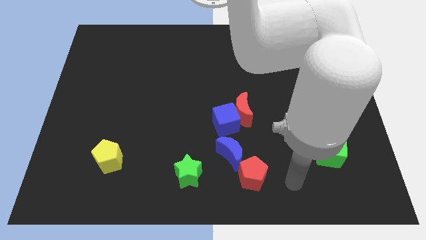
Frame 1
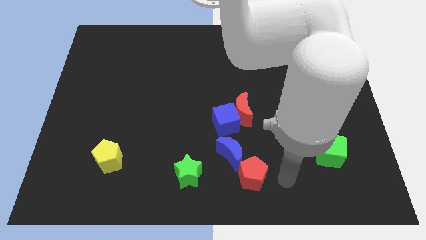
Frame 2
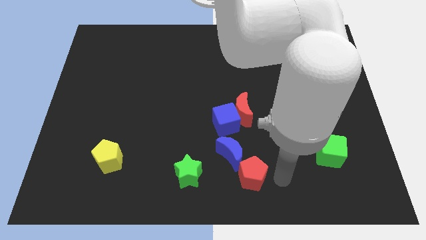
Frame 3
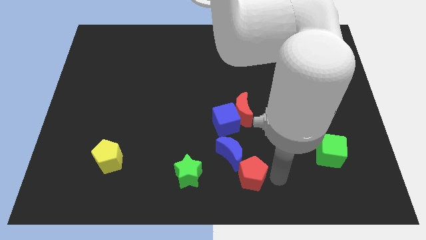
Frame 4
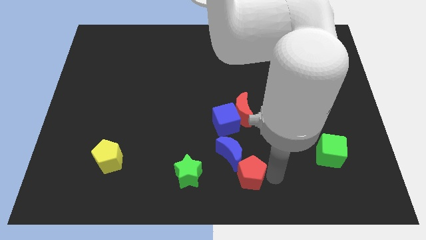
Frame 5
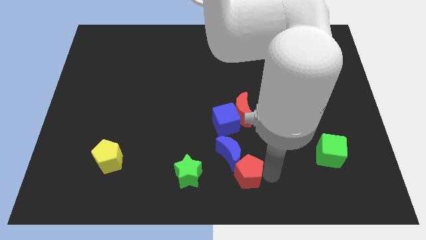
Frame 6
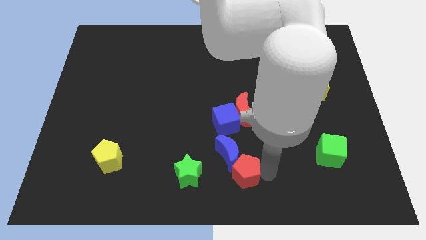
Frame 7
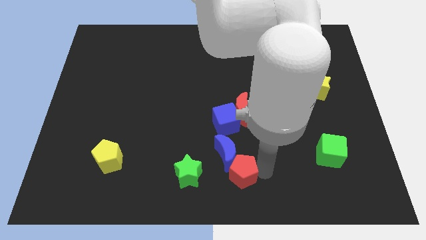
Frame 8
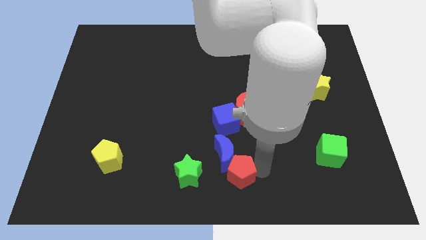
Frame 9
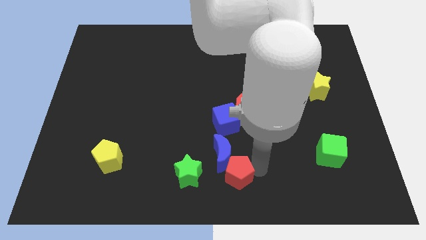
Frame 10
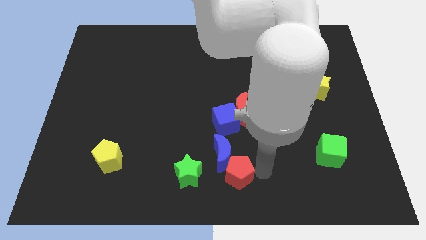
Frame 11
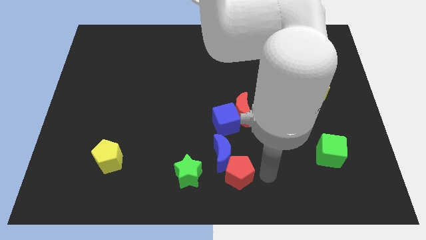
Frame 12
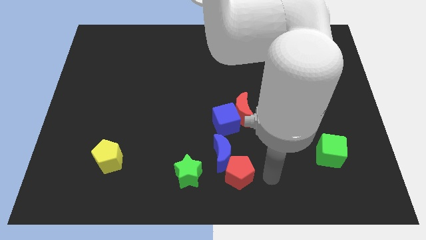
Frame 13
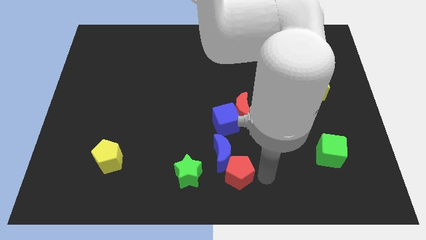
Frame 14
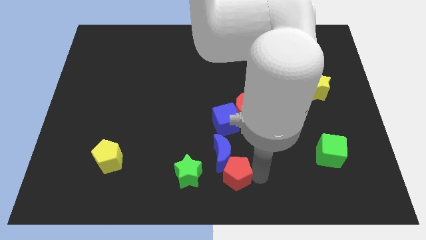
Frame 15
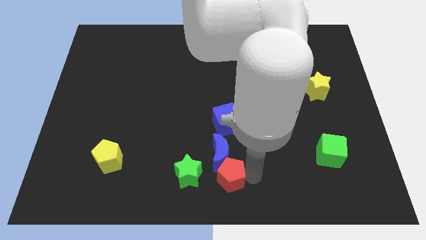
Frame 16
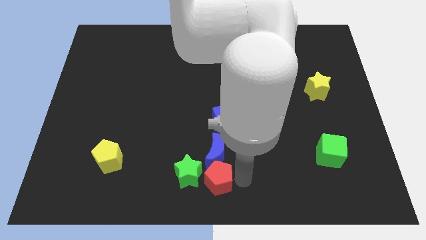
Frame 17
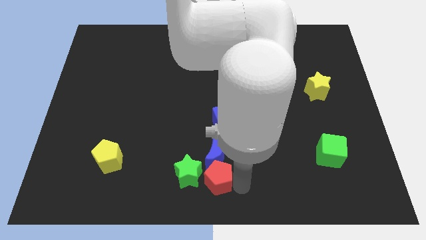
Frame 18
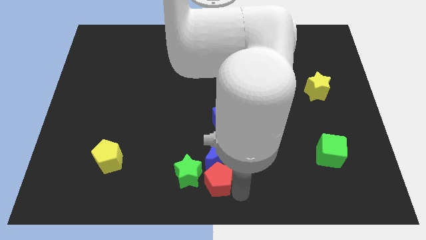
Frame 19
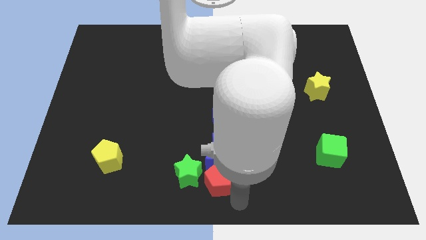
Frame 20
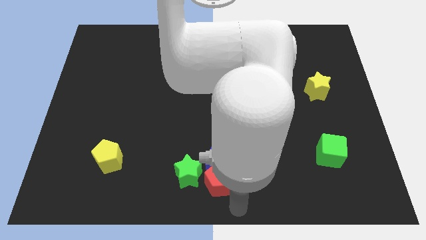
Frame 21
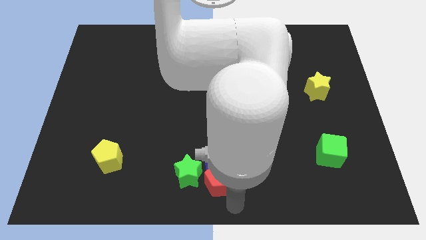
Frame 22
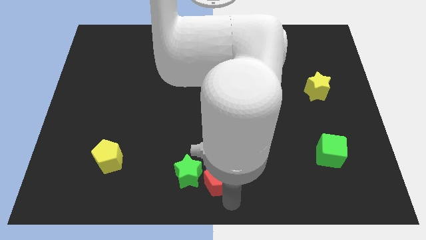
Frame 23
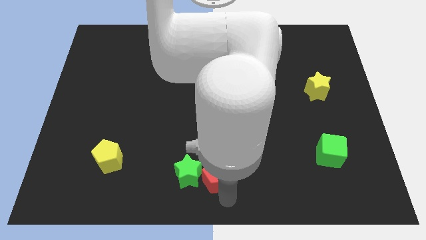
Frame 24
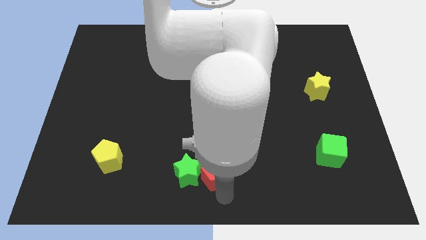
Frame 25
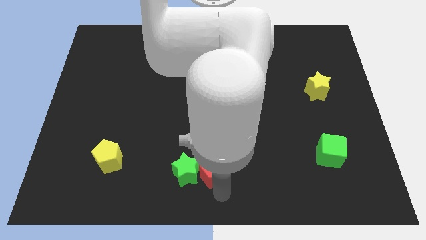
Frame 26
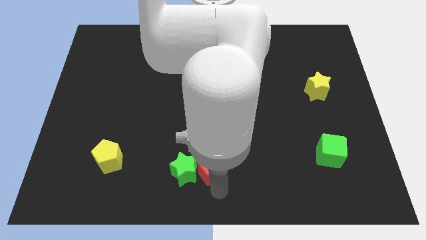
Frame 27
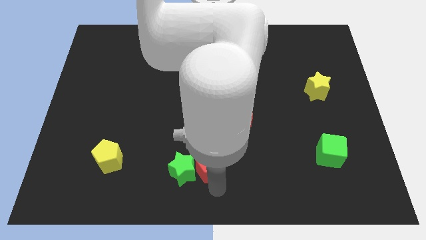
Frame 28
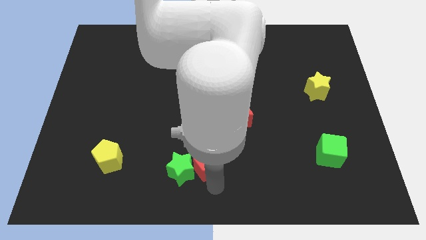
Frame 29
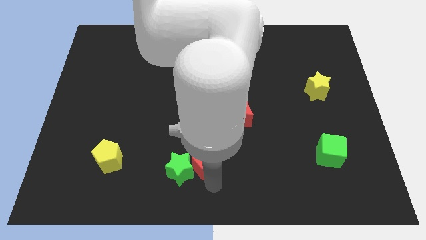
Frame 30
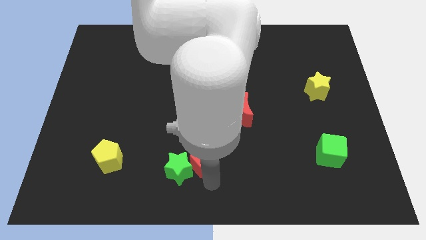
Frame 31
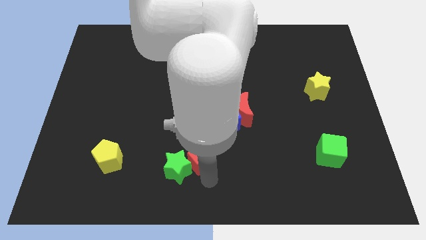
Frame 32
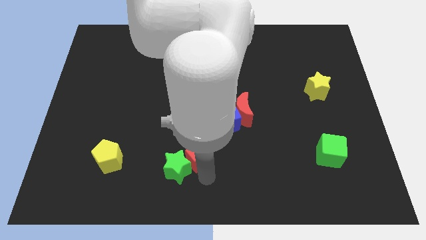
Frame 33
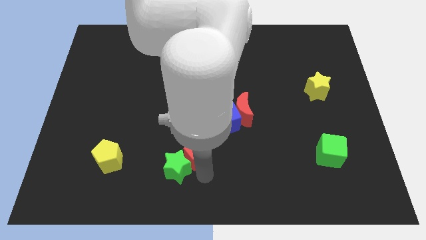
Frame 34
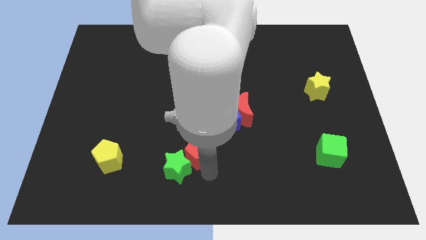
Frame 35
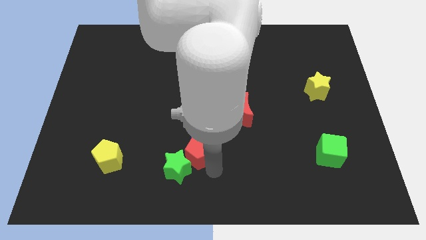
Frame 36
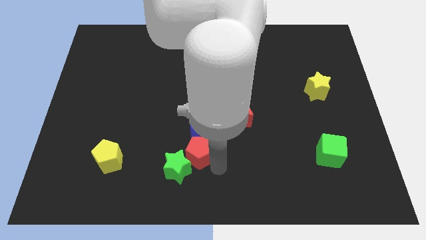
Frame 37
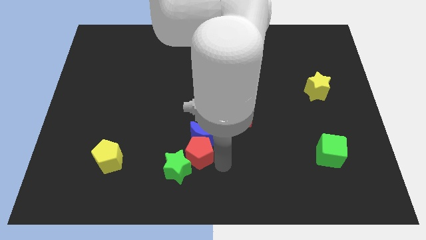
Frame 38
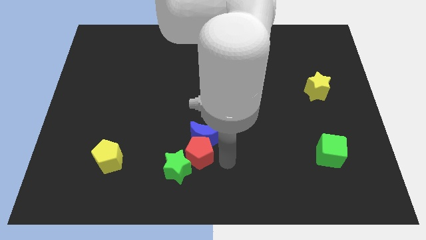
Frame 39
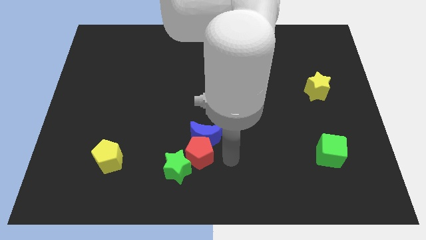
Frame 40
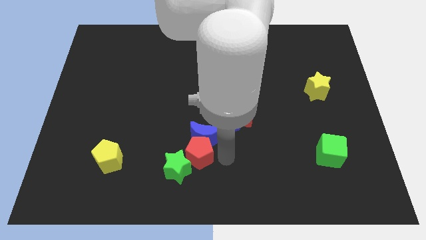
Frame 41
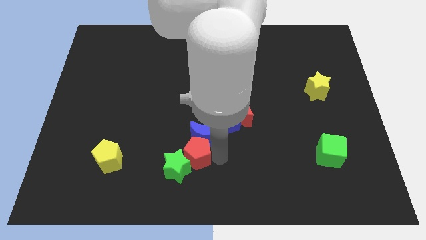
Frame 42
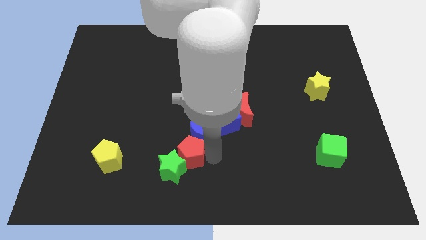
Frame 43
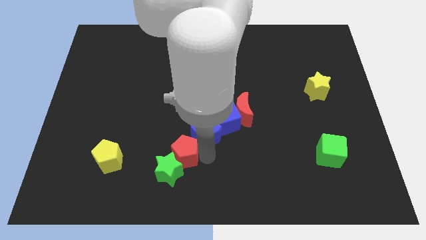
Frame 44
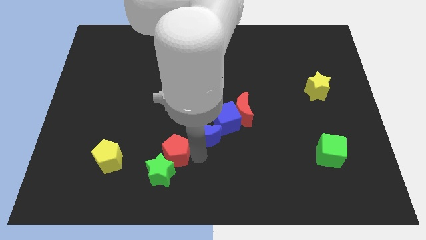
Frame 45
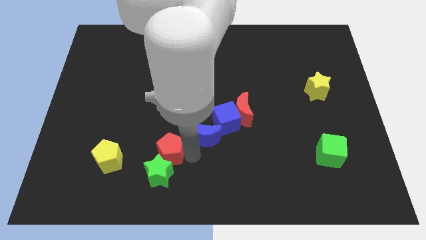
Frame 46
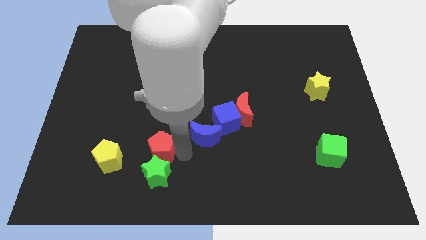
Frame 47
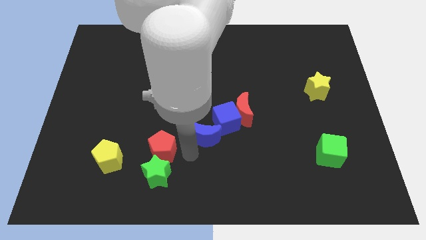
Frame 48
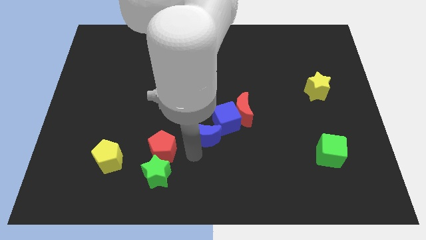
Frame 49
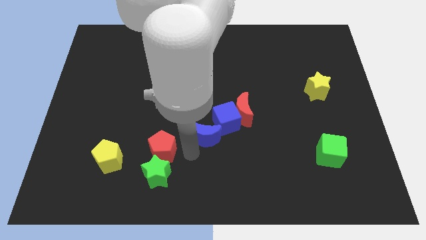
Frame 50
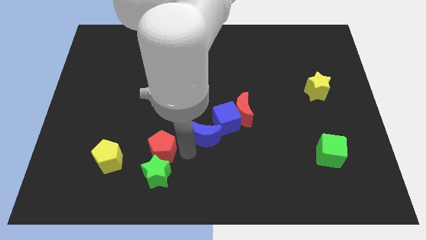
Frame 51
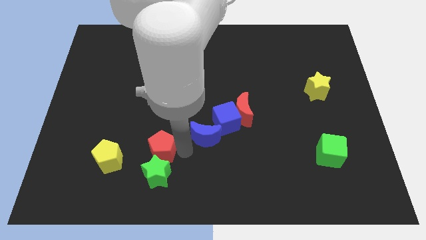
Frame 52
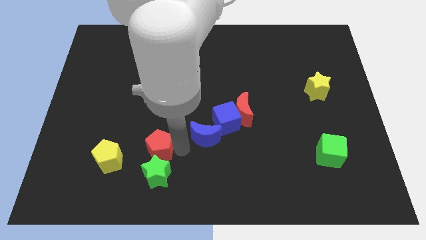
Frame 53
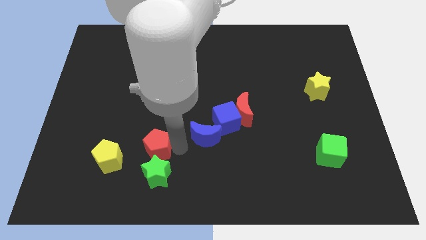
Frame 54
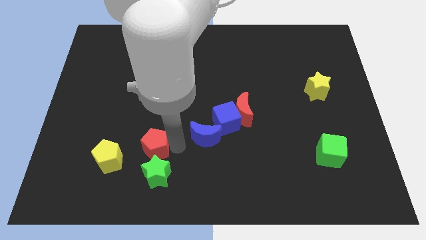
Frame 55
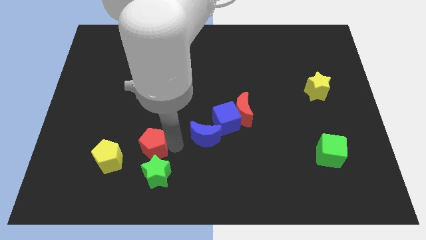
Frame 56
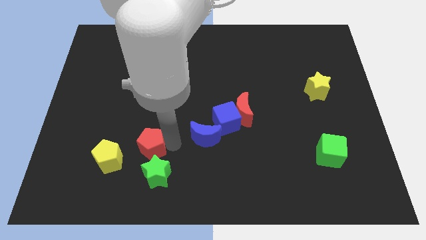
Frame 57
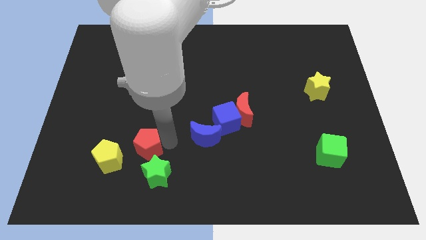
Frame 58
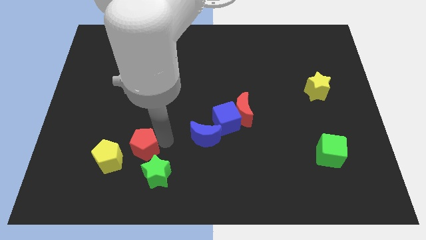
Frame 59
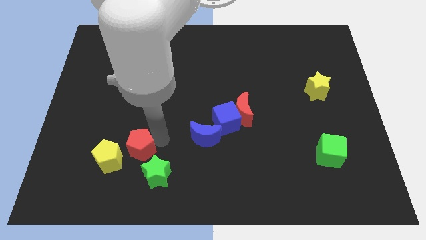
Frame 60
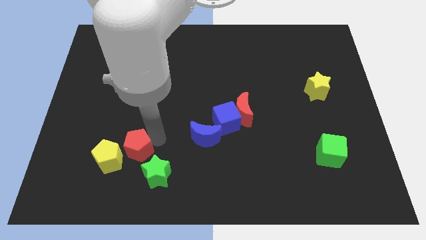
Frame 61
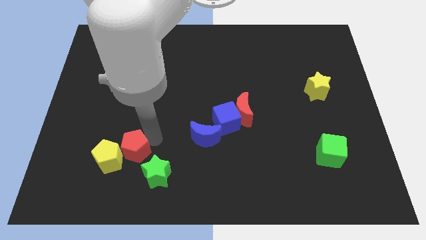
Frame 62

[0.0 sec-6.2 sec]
slide the red pentagon close to the yellow pentagon

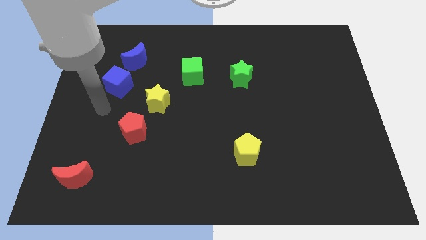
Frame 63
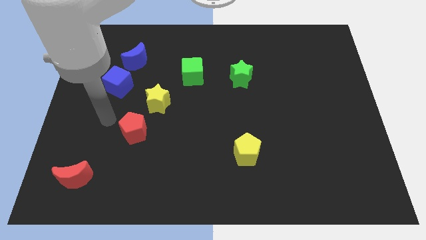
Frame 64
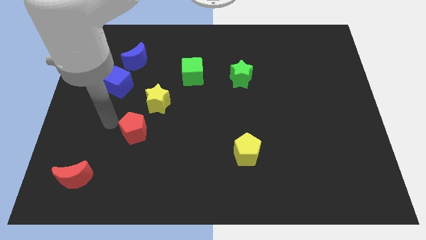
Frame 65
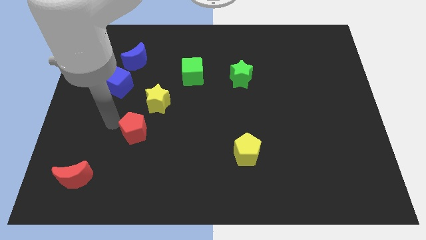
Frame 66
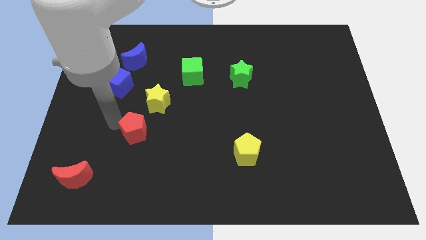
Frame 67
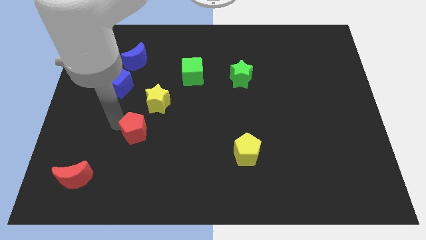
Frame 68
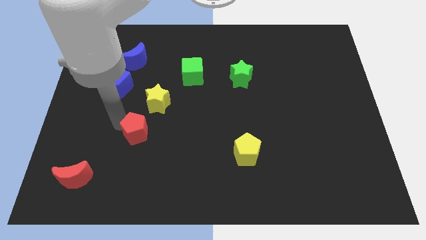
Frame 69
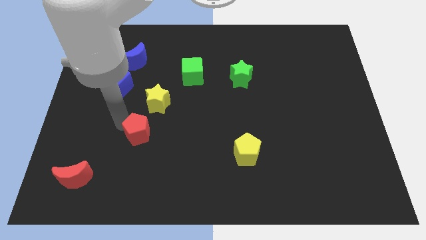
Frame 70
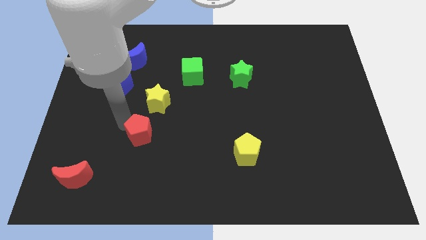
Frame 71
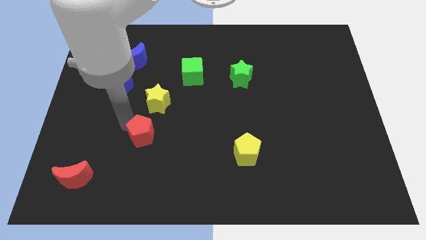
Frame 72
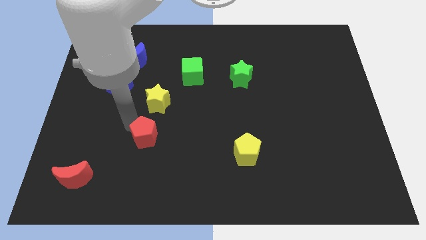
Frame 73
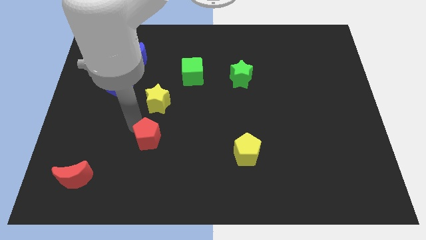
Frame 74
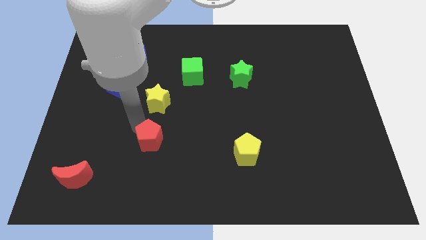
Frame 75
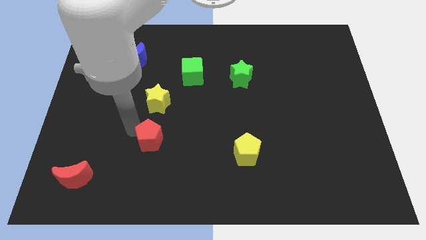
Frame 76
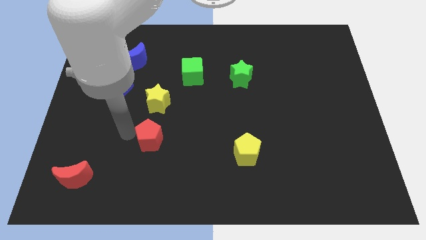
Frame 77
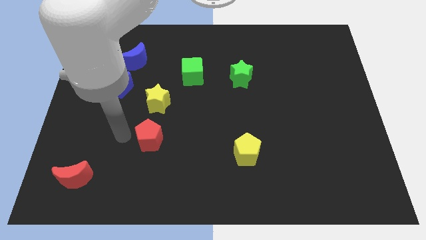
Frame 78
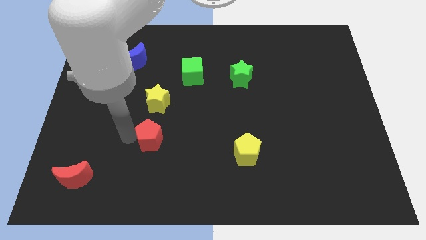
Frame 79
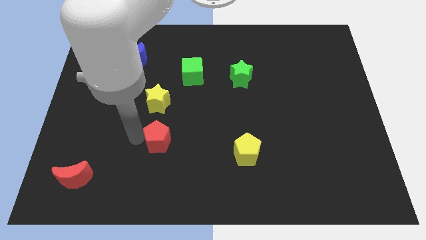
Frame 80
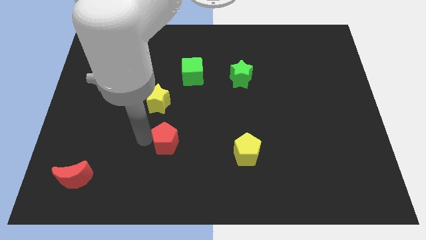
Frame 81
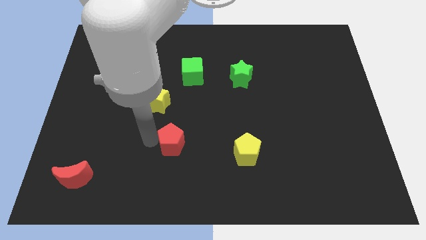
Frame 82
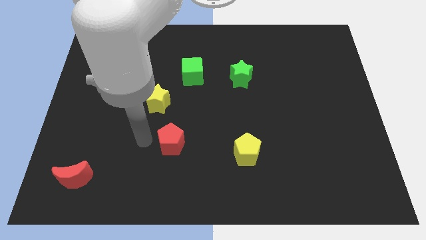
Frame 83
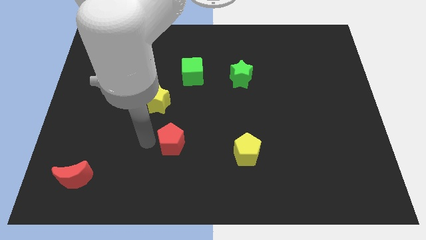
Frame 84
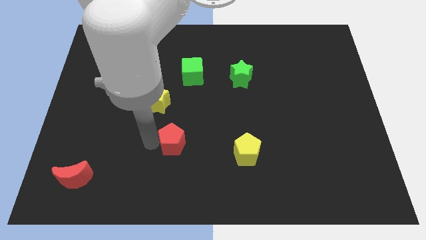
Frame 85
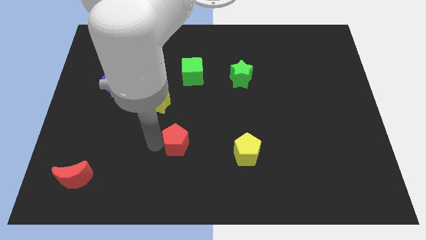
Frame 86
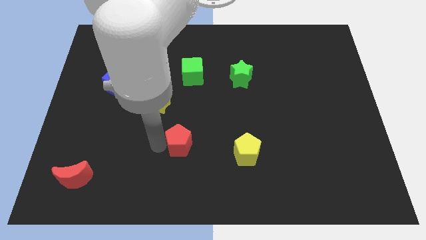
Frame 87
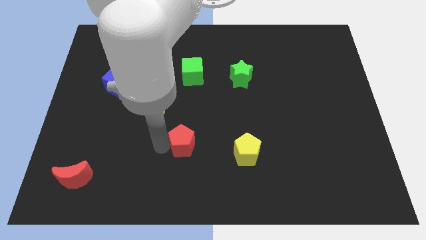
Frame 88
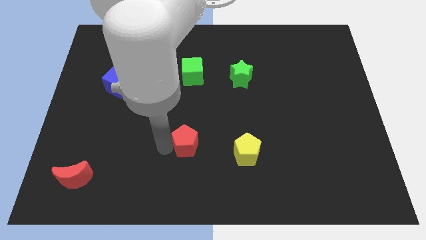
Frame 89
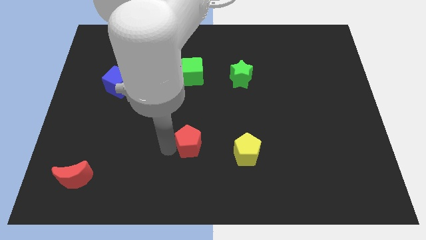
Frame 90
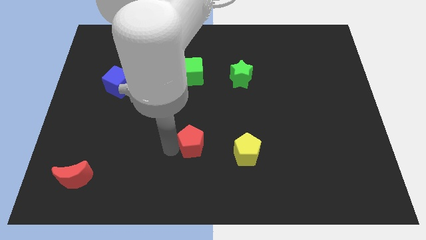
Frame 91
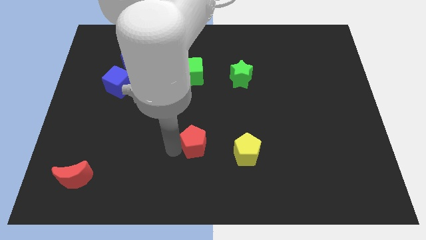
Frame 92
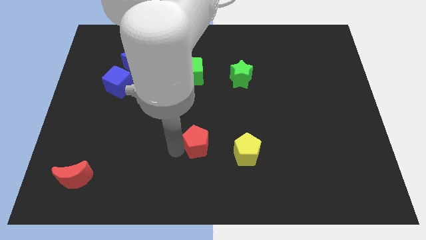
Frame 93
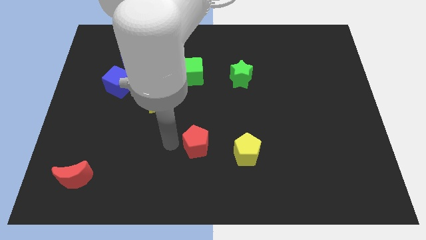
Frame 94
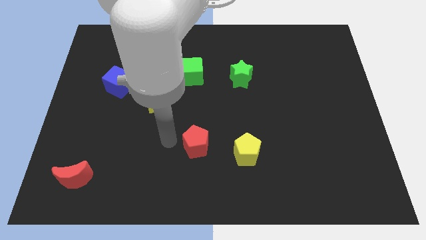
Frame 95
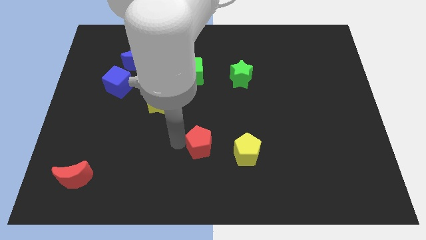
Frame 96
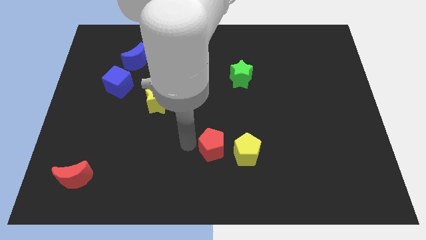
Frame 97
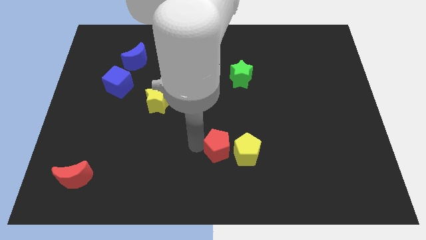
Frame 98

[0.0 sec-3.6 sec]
slide the red pentagon towards the yellow pentagon
